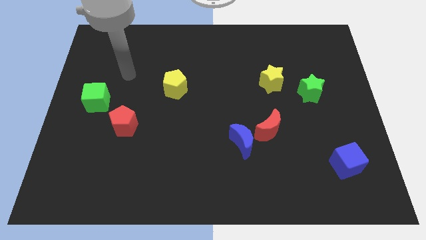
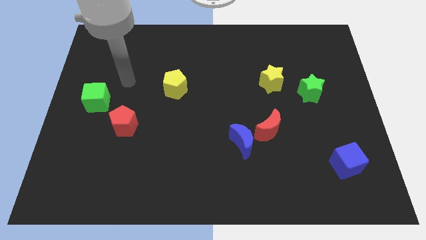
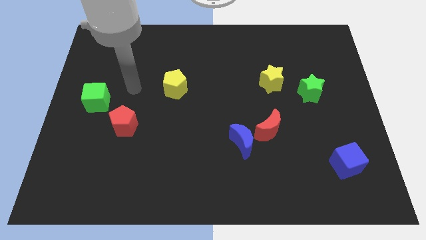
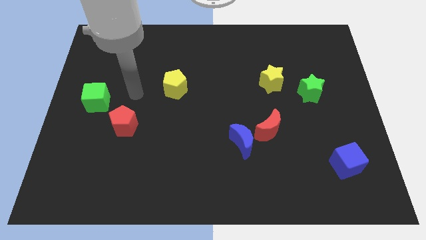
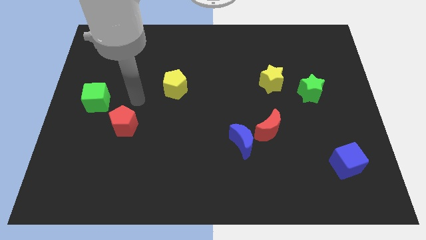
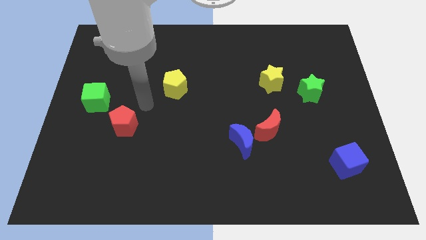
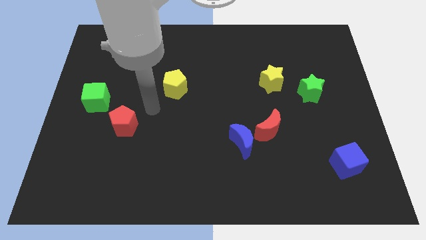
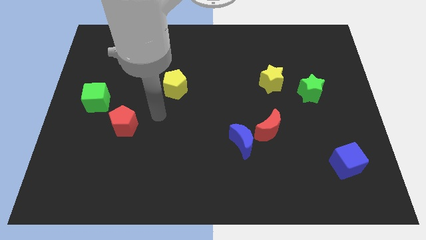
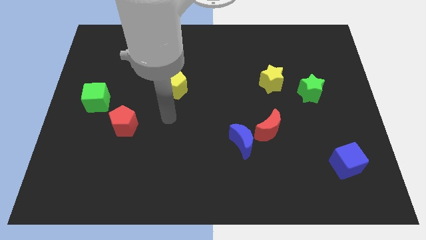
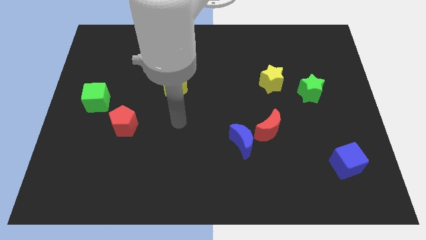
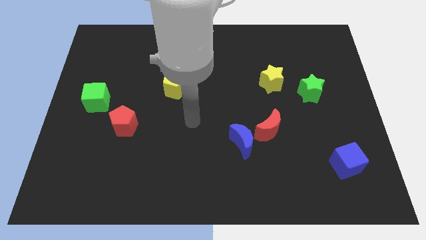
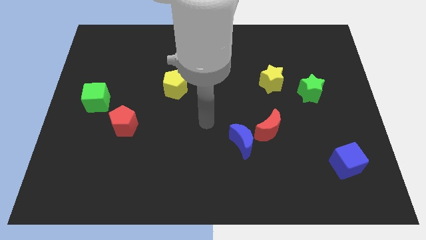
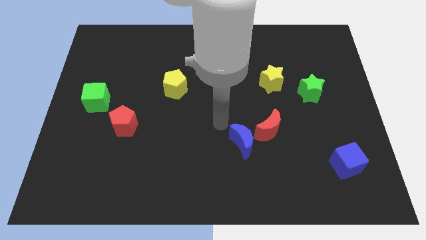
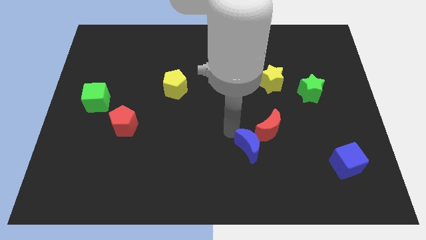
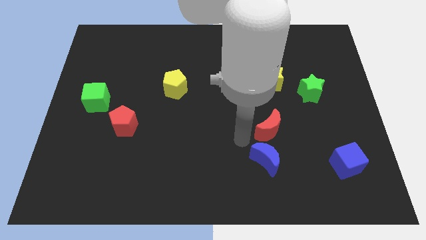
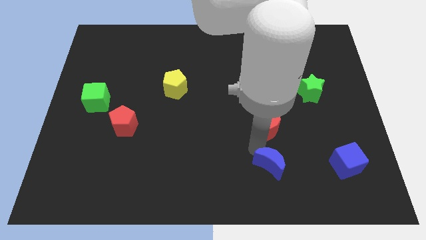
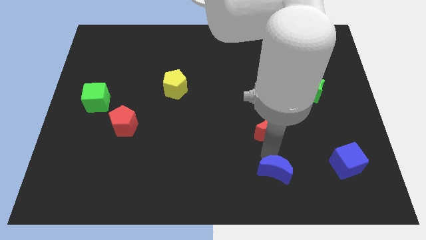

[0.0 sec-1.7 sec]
separate the red moon from the blue moon

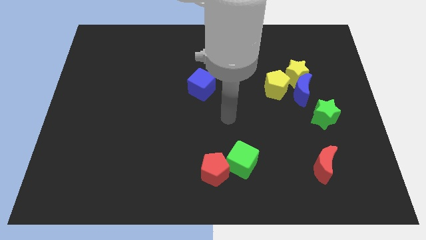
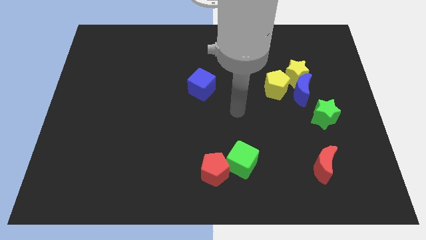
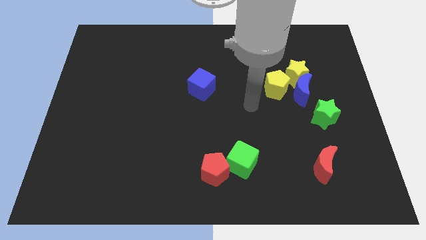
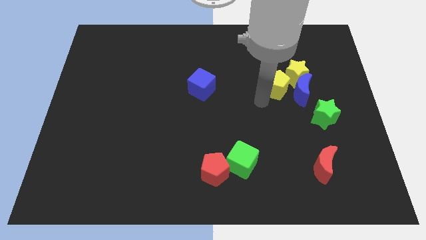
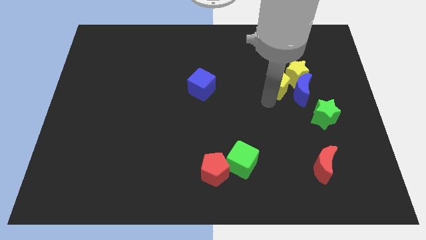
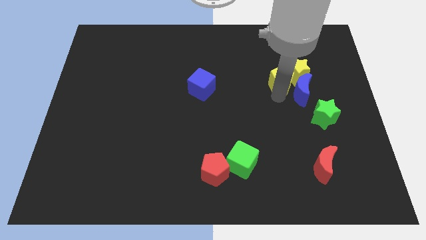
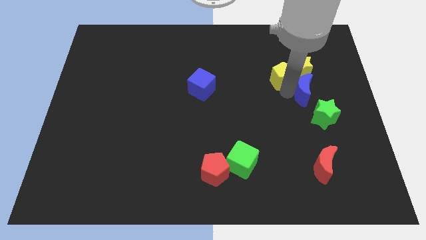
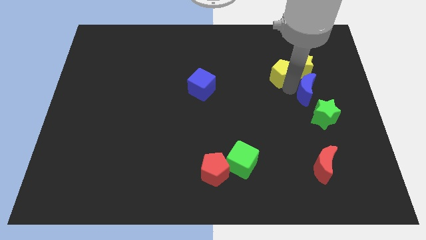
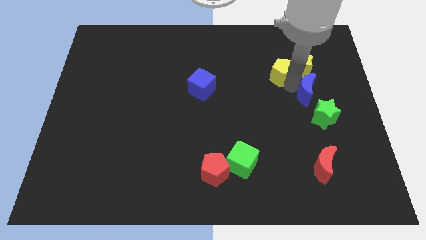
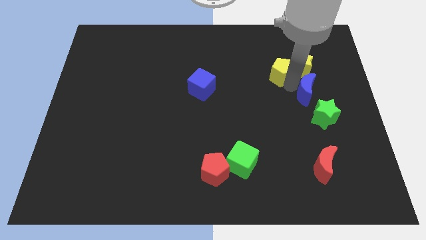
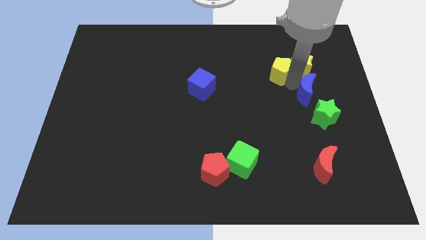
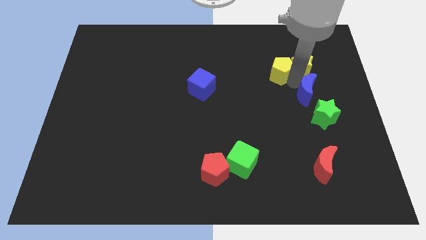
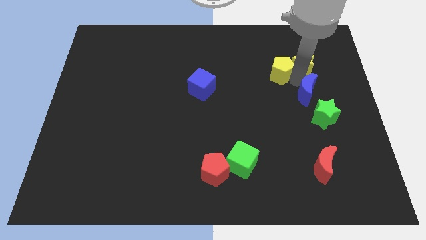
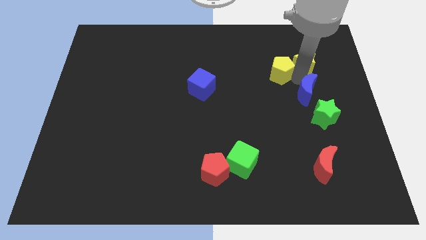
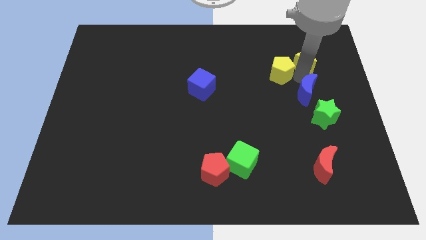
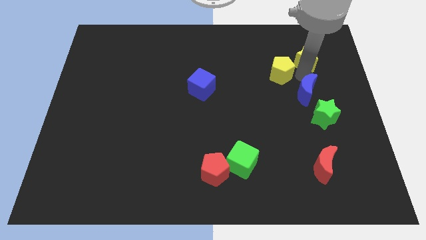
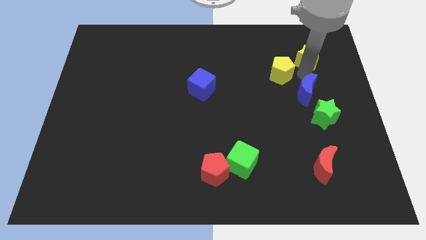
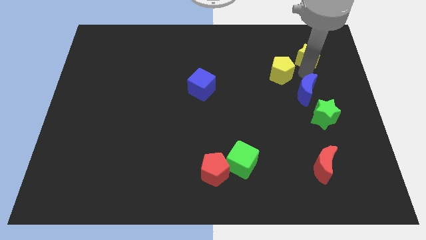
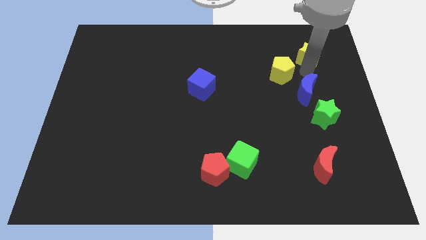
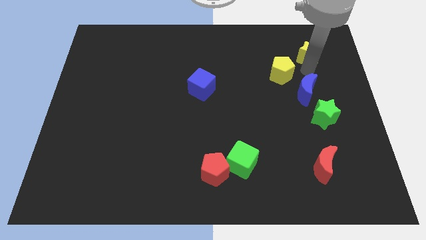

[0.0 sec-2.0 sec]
separate the yellow star from the blue moon and yellow pentagon

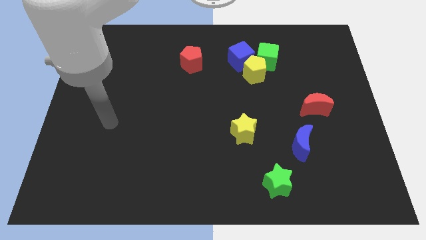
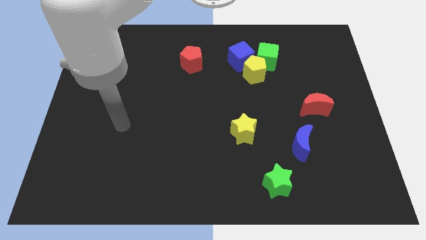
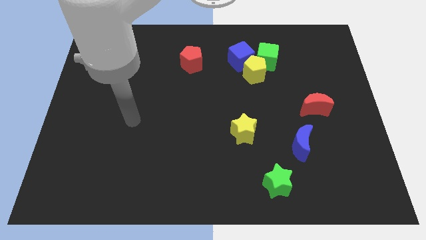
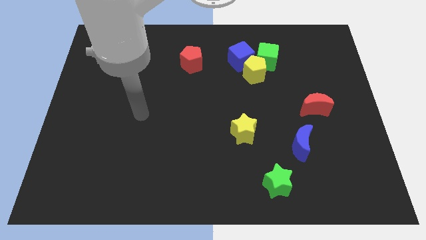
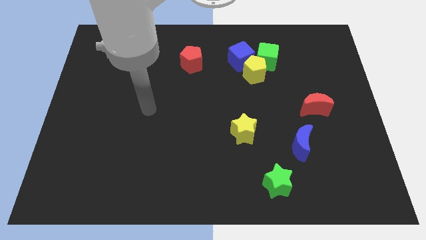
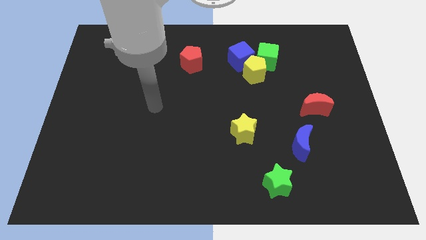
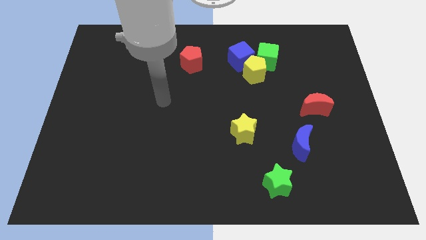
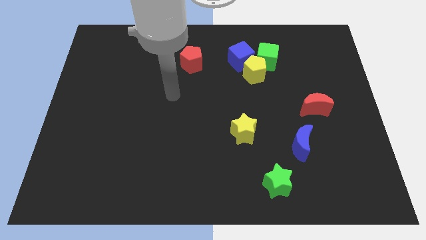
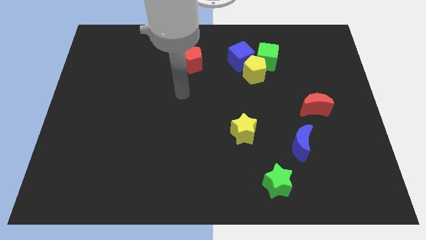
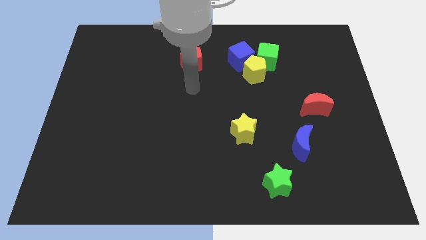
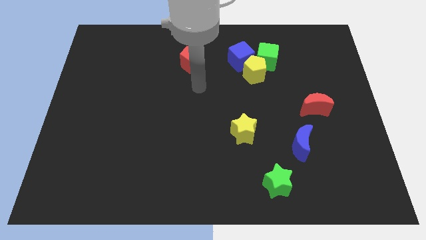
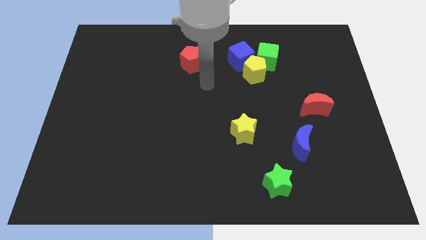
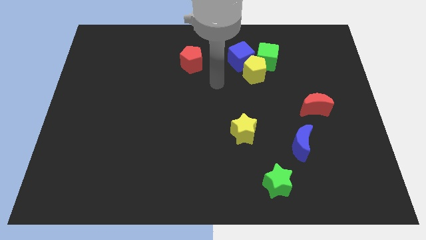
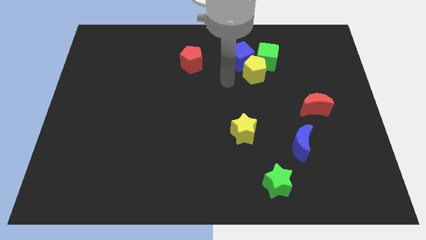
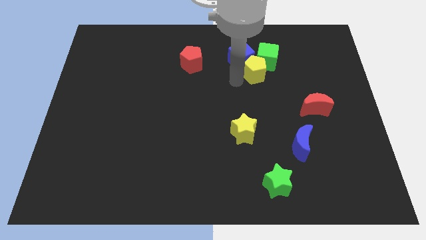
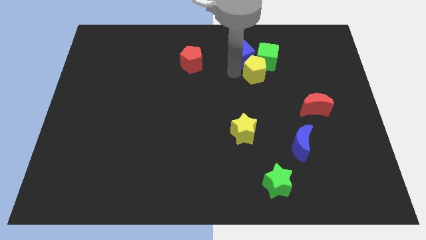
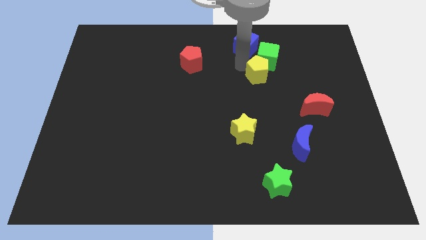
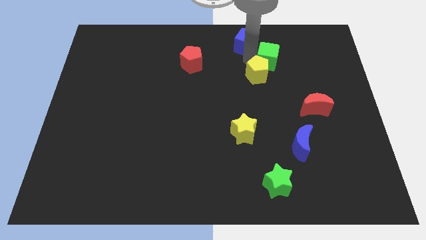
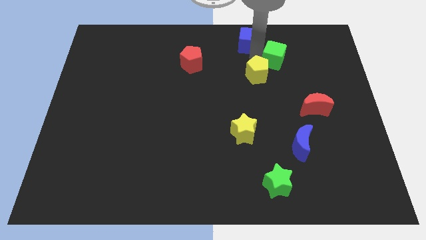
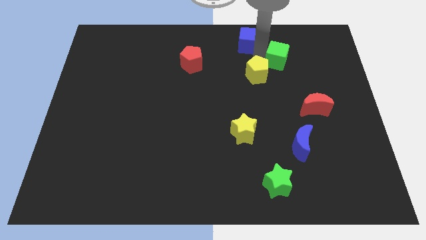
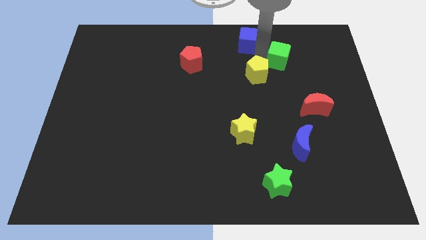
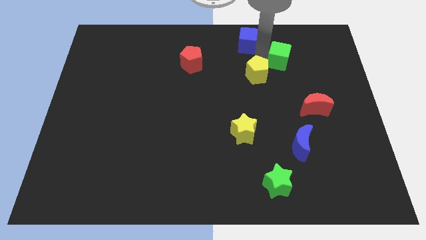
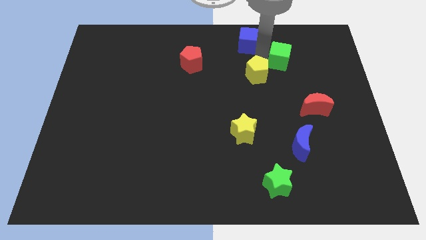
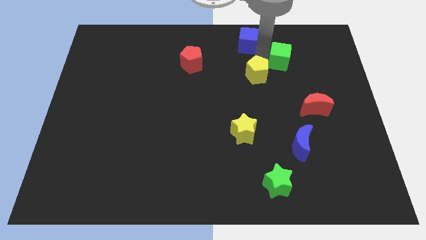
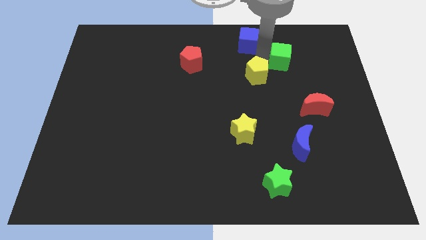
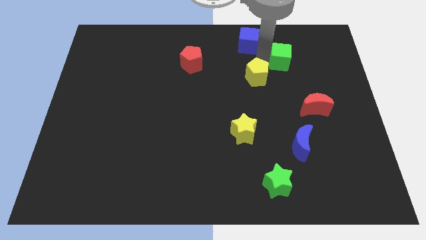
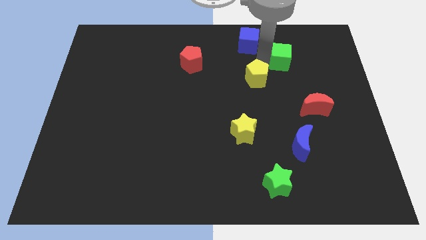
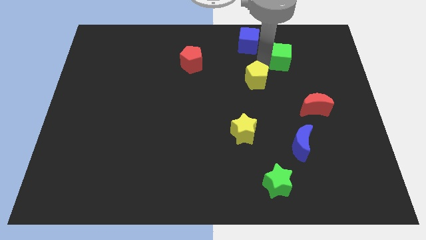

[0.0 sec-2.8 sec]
move the yellow pentagon away from the blue cube and green cube

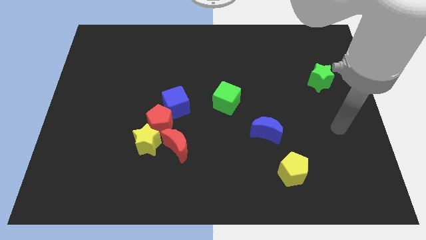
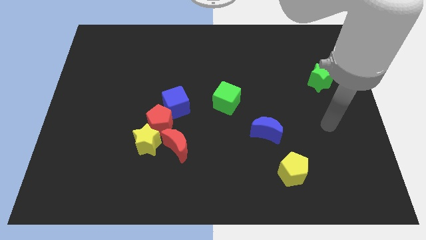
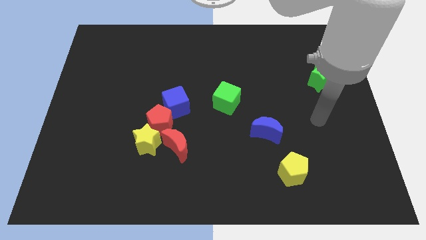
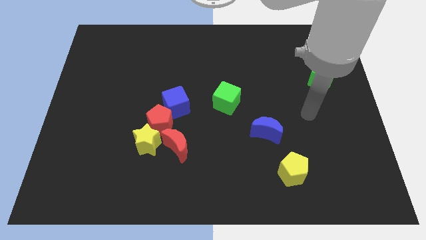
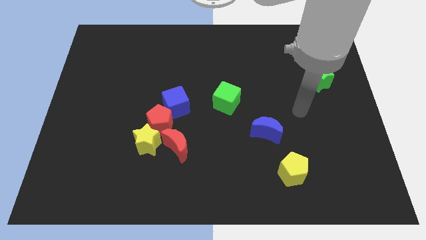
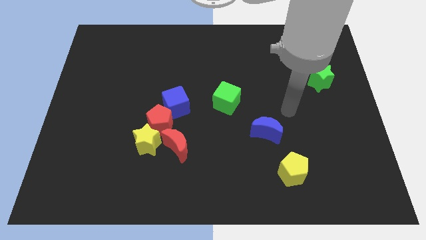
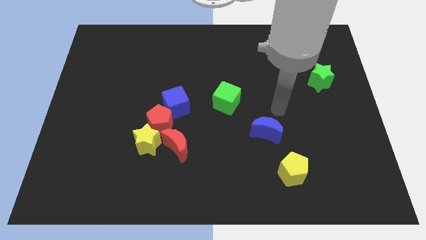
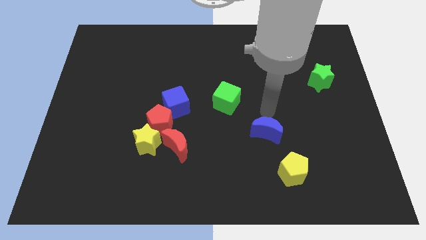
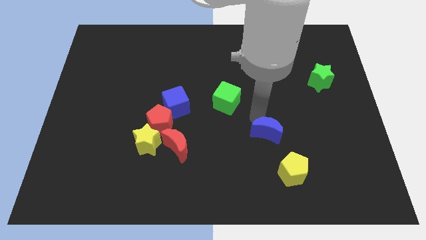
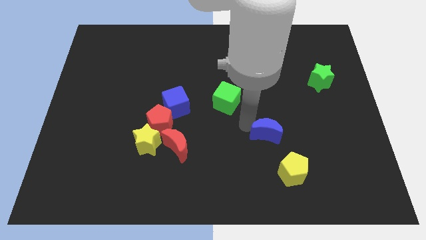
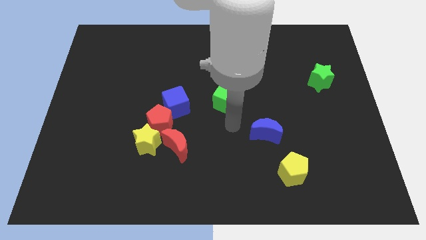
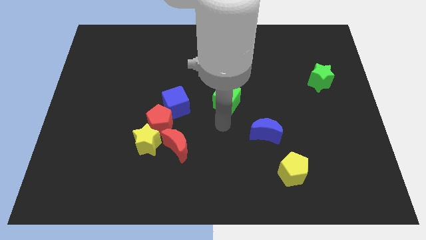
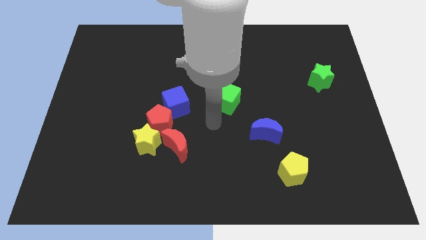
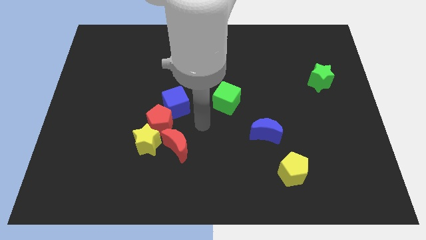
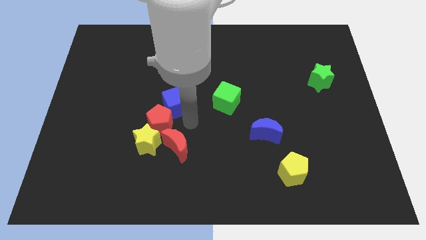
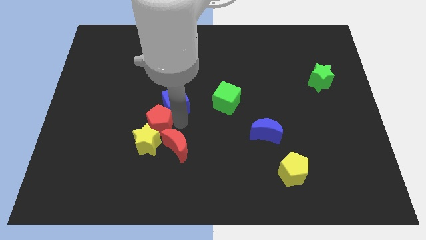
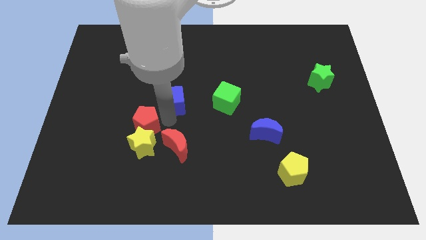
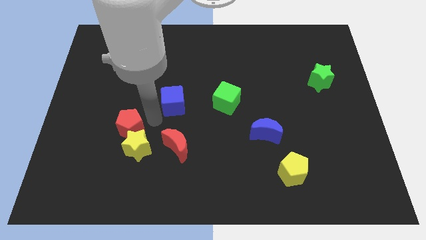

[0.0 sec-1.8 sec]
move the blue cube away from the red pentagon

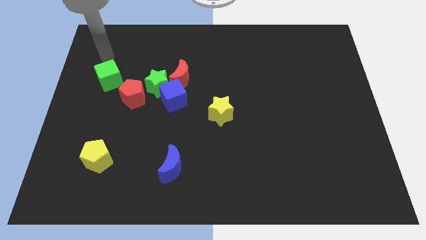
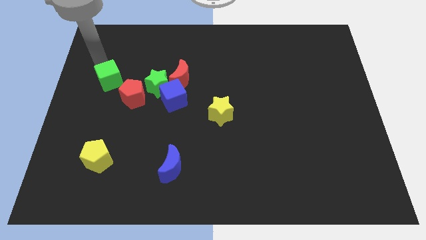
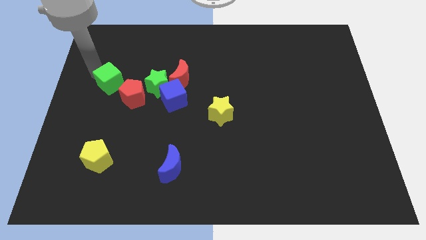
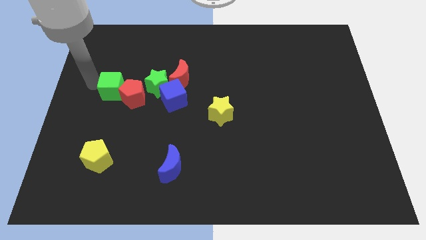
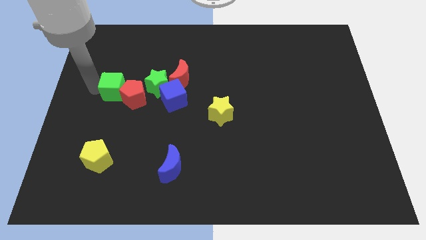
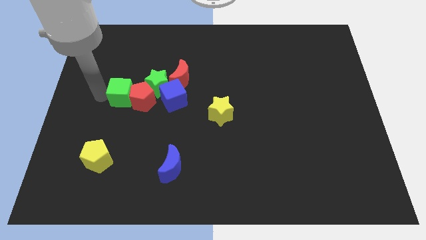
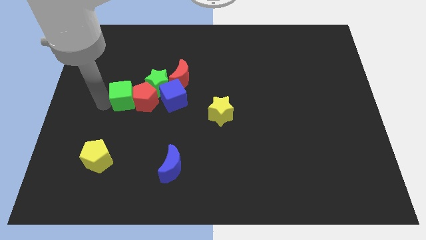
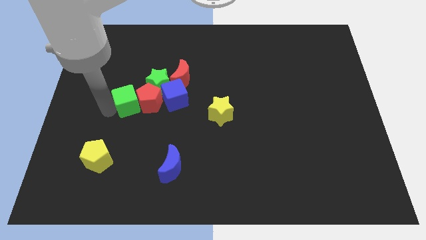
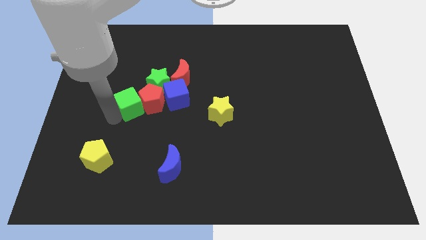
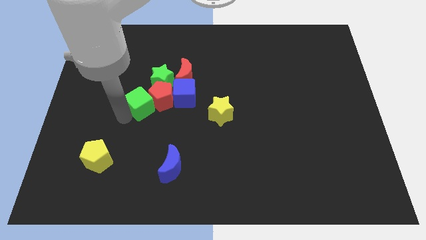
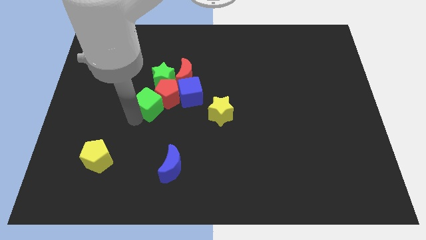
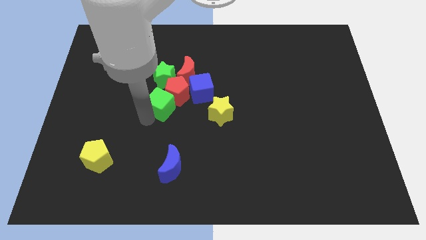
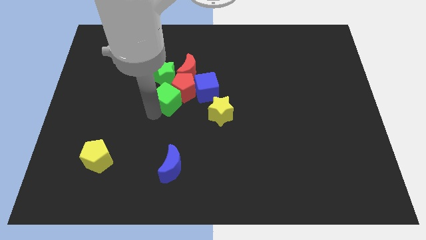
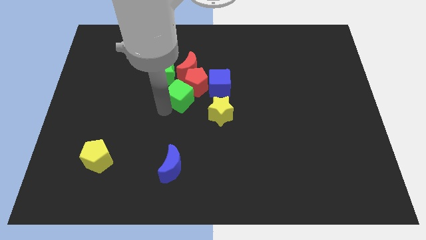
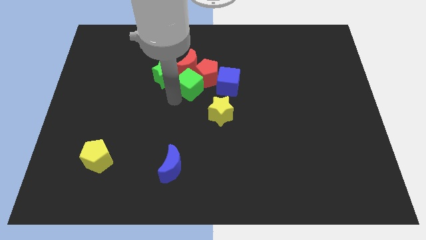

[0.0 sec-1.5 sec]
pull the green star apart from the blue cube, red moon, and red pentagon
